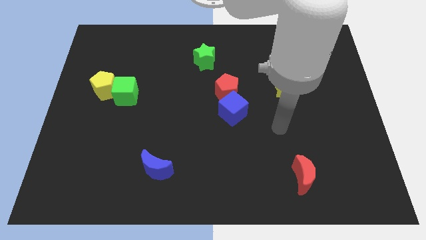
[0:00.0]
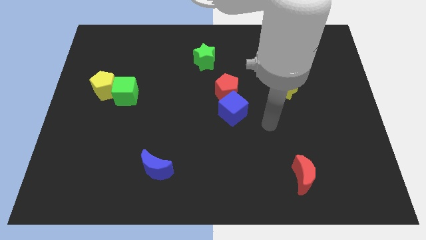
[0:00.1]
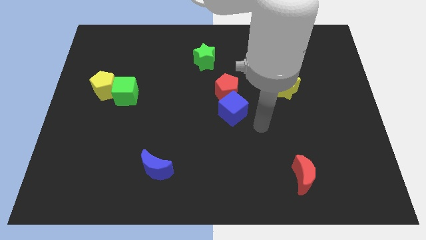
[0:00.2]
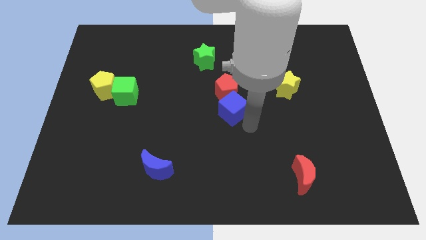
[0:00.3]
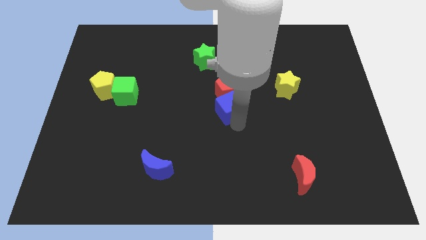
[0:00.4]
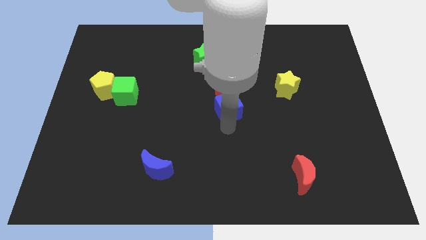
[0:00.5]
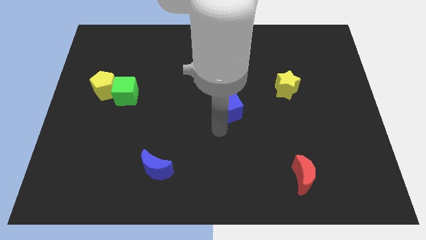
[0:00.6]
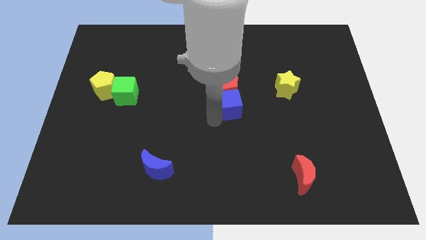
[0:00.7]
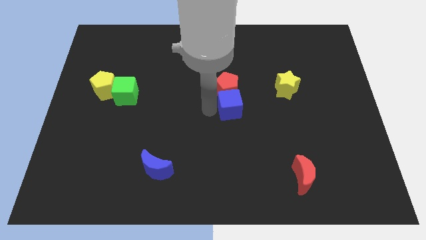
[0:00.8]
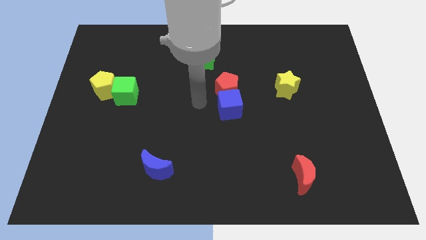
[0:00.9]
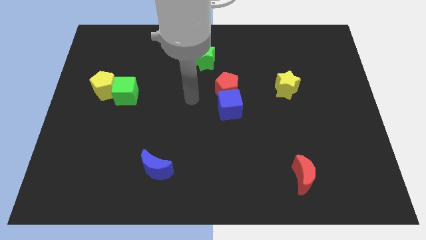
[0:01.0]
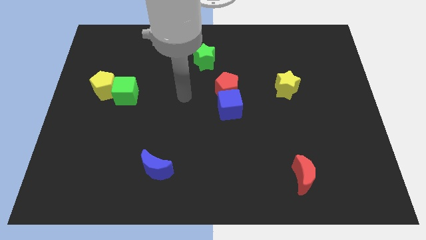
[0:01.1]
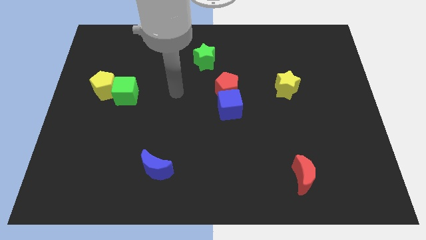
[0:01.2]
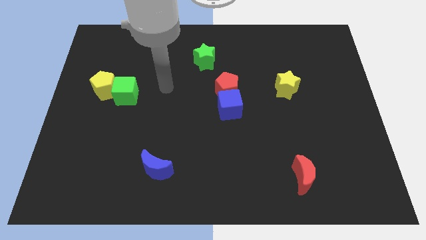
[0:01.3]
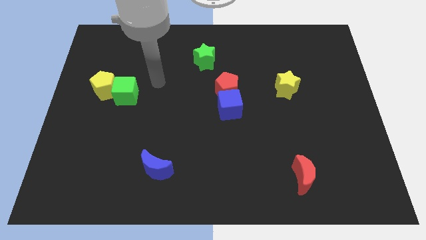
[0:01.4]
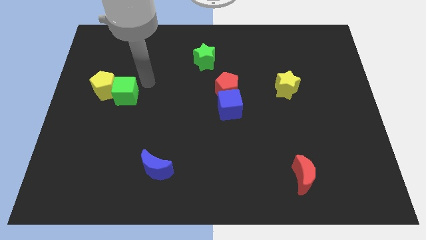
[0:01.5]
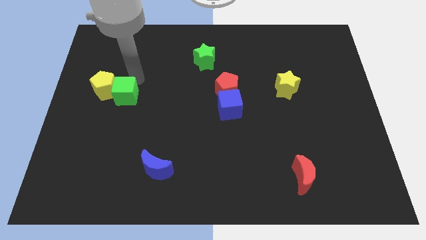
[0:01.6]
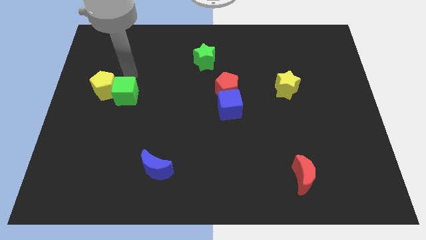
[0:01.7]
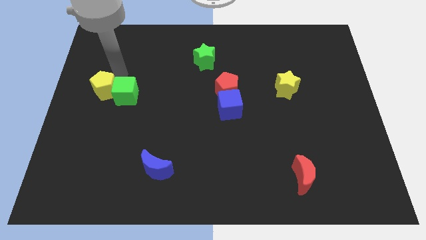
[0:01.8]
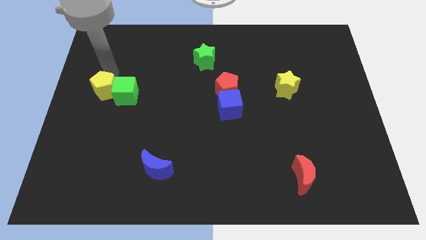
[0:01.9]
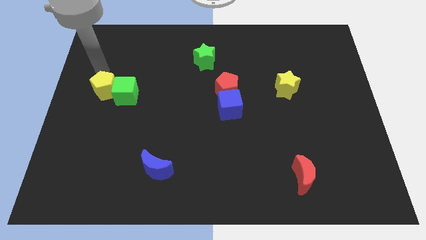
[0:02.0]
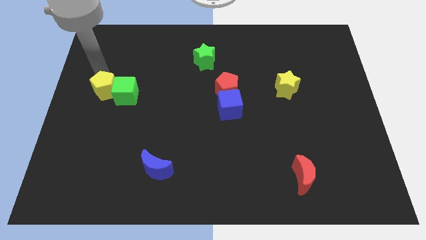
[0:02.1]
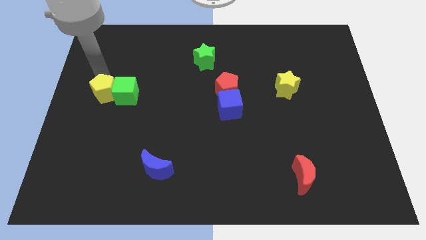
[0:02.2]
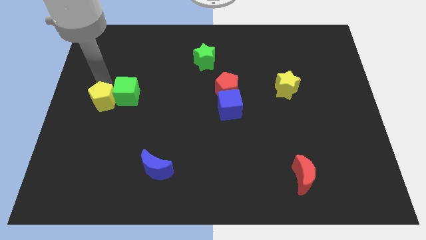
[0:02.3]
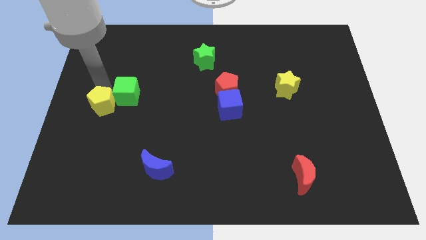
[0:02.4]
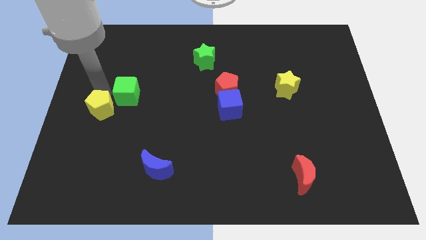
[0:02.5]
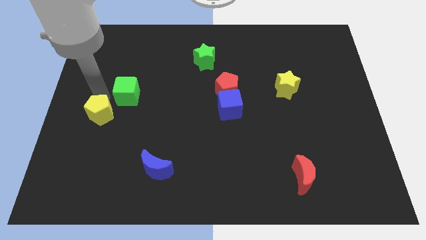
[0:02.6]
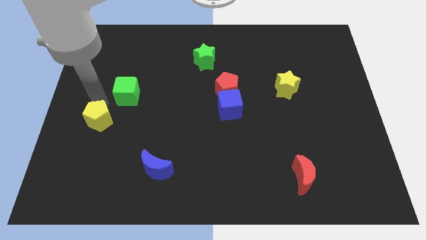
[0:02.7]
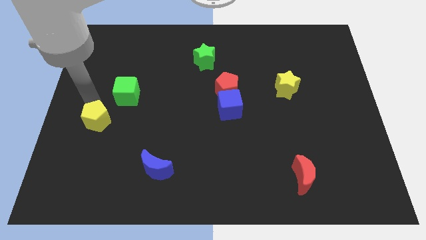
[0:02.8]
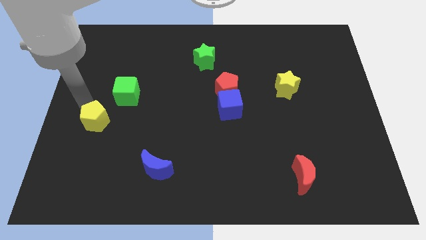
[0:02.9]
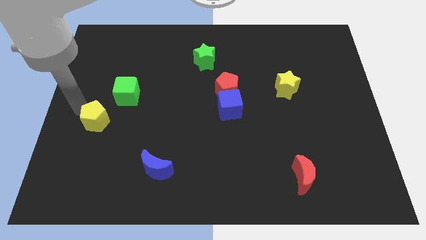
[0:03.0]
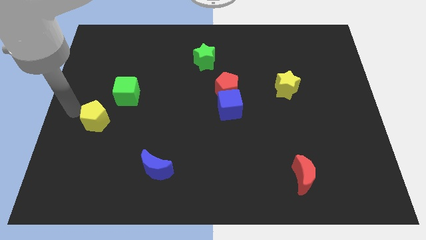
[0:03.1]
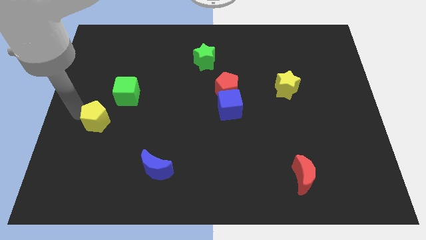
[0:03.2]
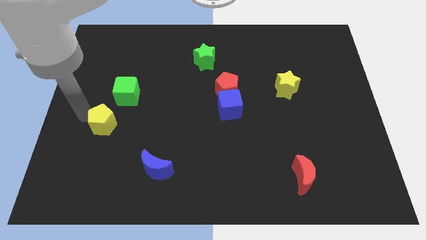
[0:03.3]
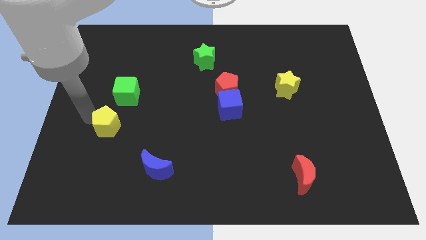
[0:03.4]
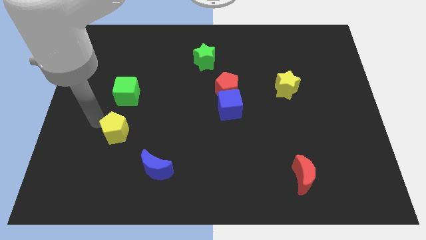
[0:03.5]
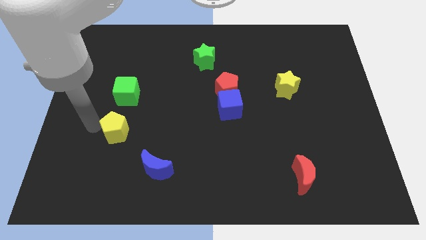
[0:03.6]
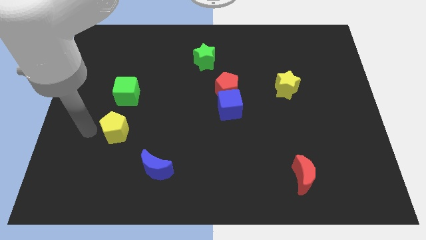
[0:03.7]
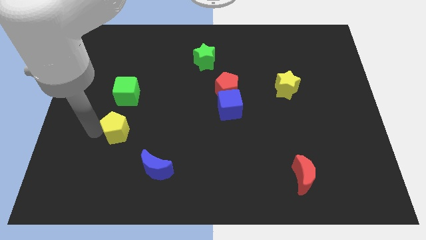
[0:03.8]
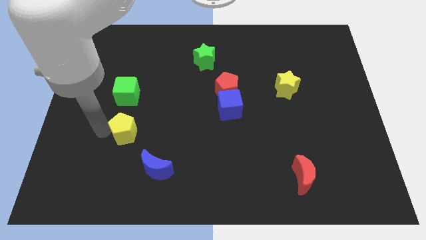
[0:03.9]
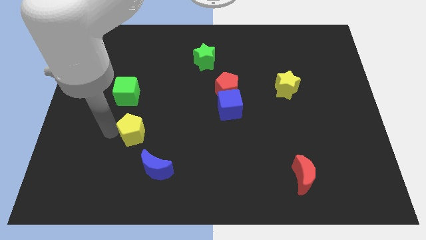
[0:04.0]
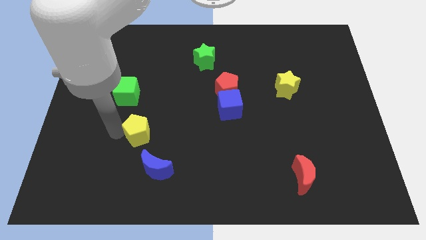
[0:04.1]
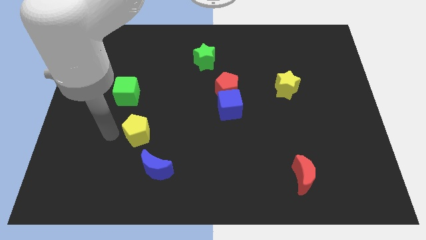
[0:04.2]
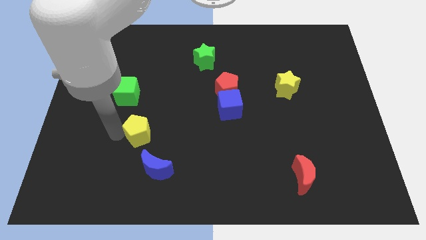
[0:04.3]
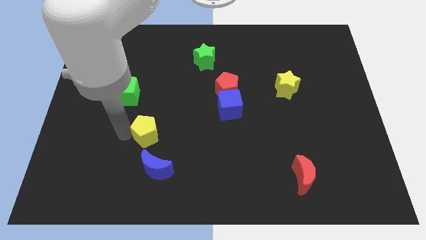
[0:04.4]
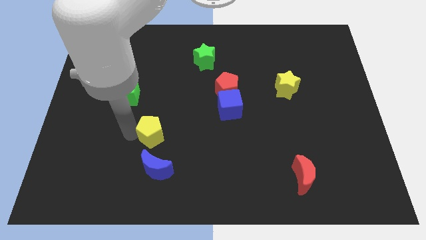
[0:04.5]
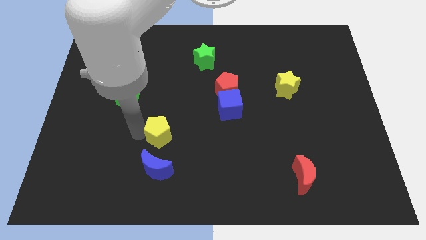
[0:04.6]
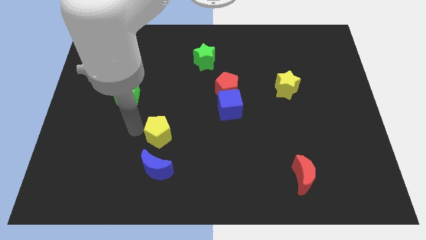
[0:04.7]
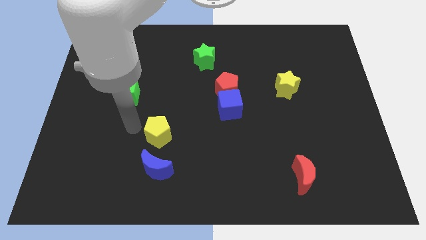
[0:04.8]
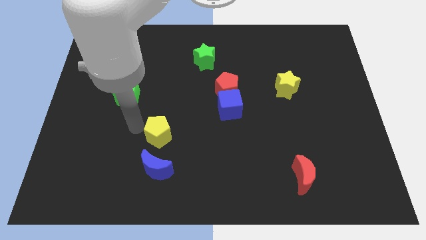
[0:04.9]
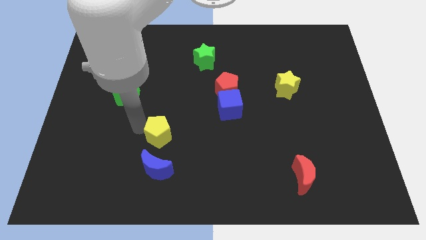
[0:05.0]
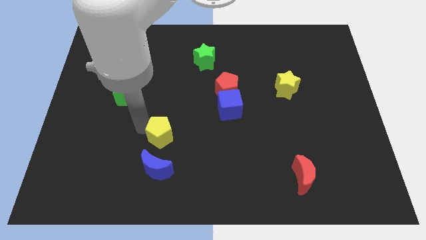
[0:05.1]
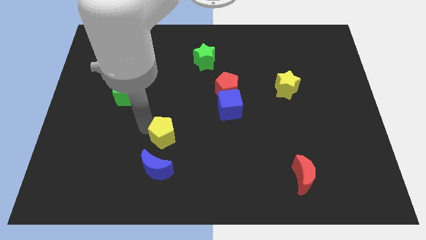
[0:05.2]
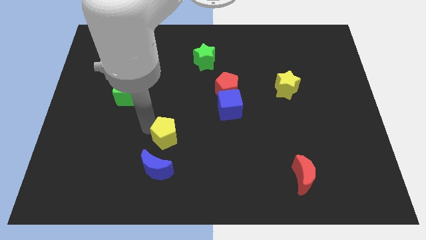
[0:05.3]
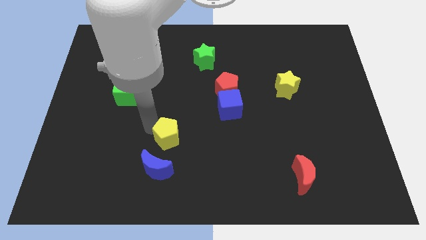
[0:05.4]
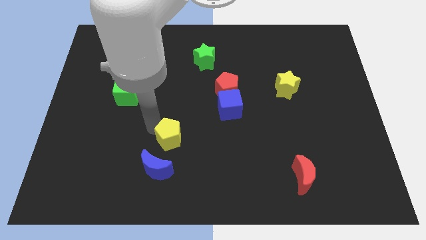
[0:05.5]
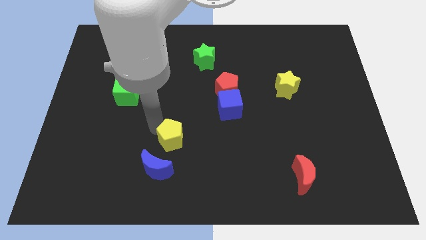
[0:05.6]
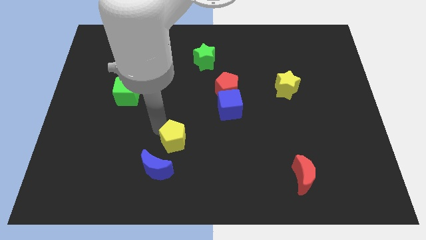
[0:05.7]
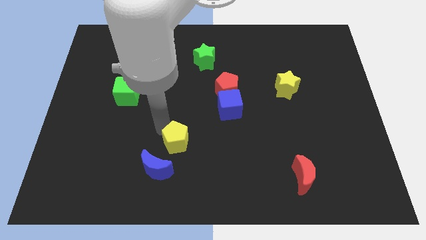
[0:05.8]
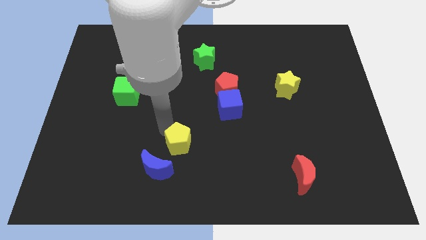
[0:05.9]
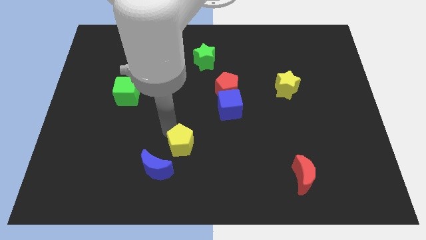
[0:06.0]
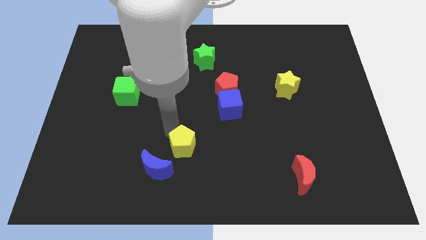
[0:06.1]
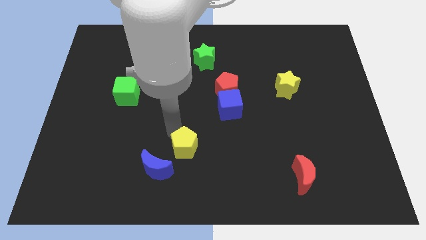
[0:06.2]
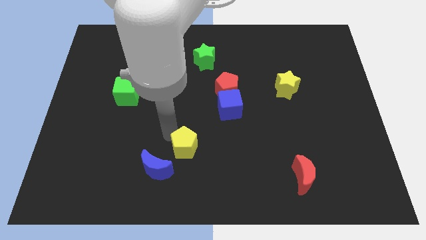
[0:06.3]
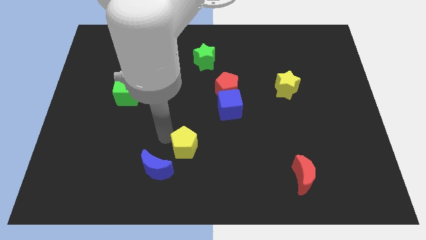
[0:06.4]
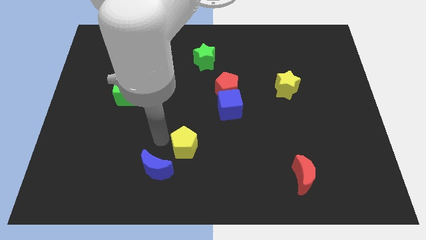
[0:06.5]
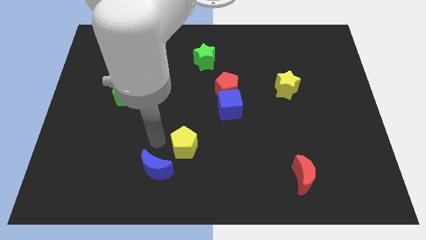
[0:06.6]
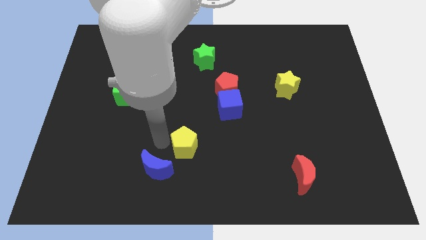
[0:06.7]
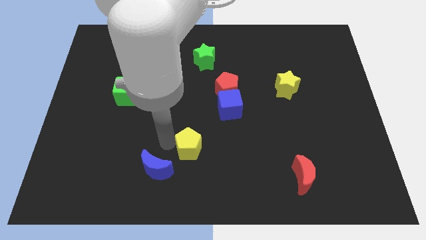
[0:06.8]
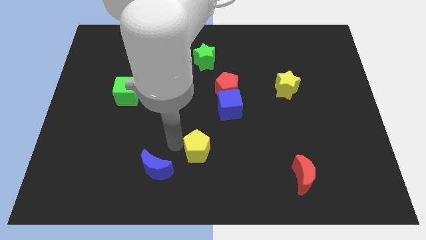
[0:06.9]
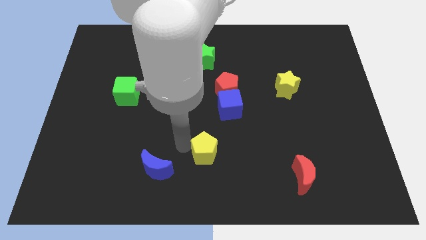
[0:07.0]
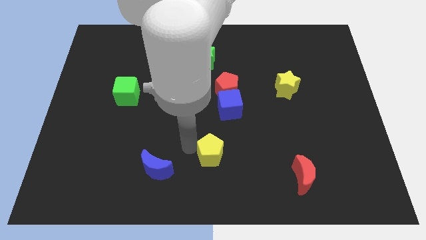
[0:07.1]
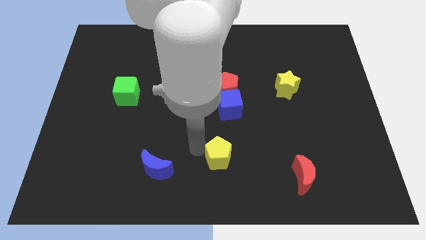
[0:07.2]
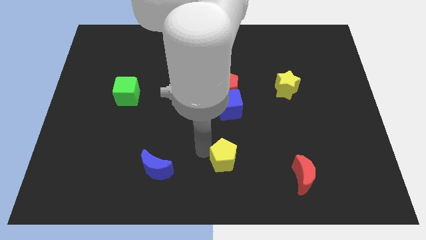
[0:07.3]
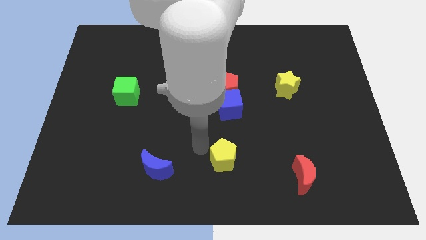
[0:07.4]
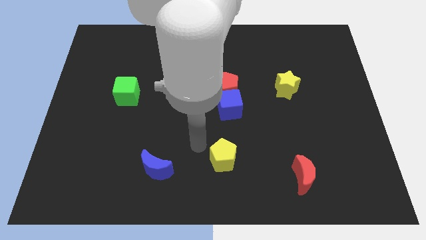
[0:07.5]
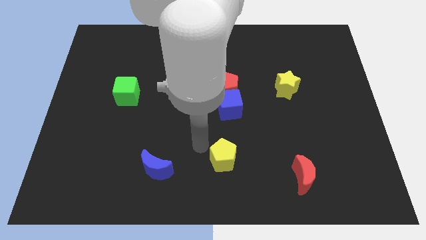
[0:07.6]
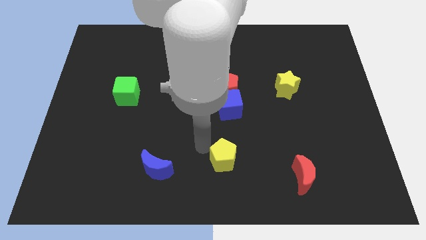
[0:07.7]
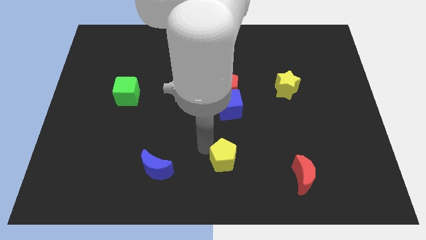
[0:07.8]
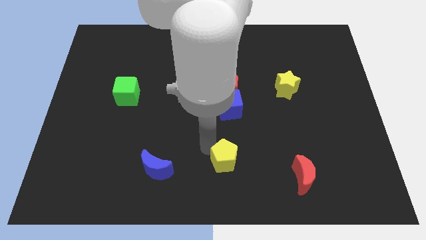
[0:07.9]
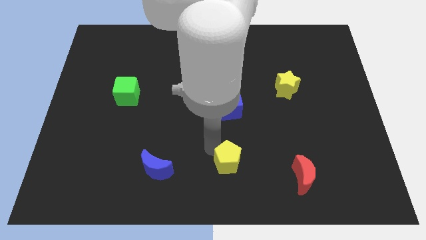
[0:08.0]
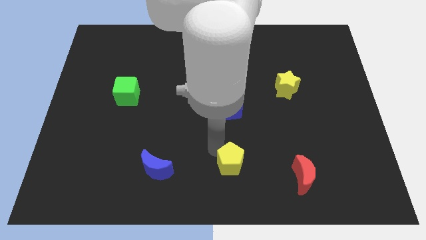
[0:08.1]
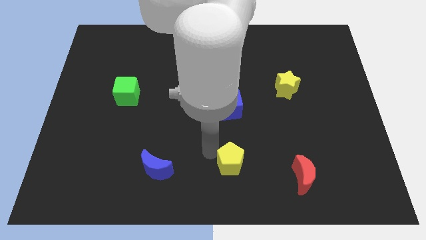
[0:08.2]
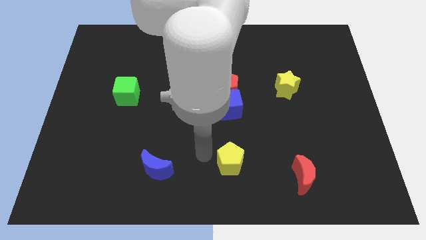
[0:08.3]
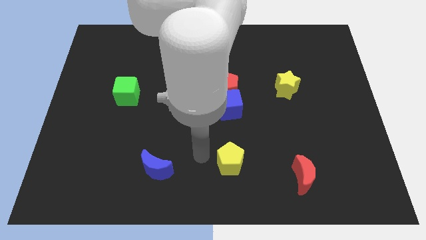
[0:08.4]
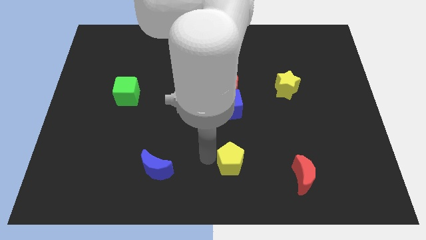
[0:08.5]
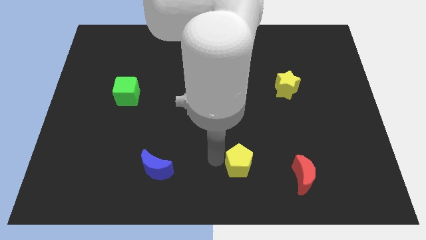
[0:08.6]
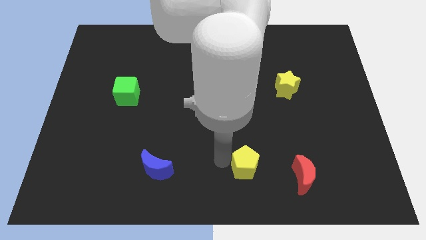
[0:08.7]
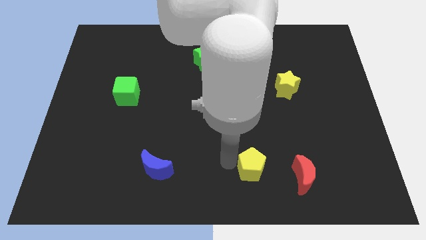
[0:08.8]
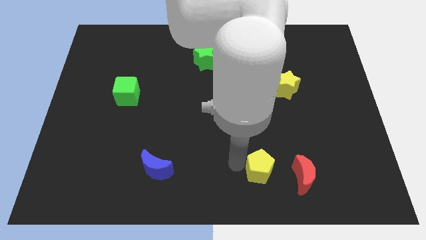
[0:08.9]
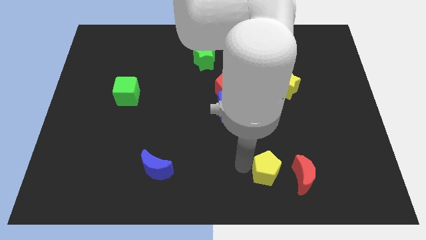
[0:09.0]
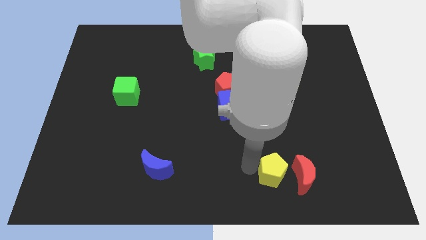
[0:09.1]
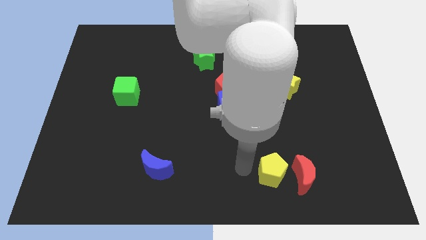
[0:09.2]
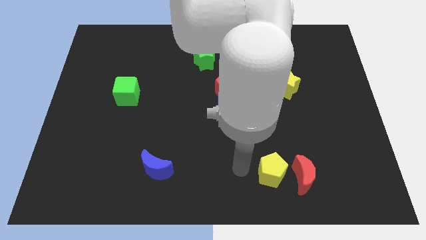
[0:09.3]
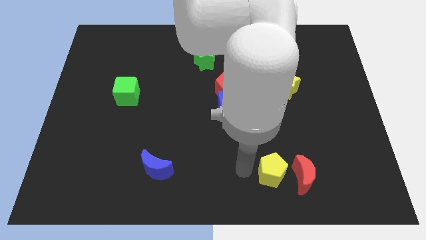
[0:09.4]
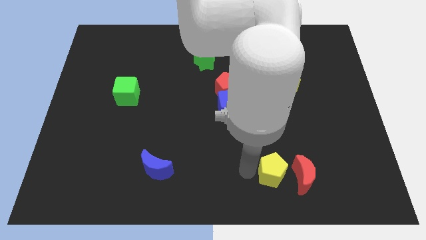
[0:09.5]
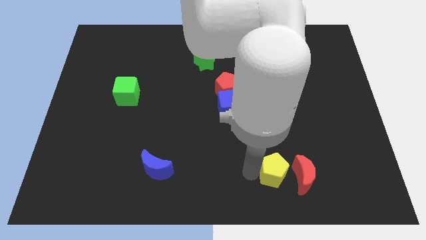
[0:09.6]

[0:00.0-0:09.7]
push the yellow pentagon towards the red moon
